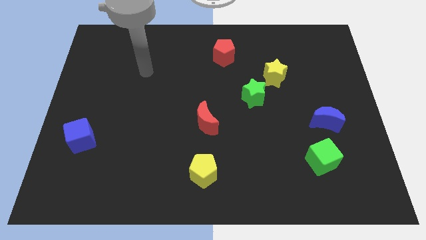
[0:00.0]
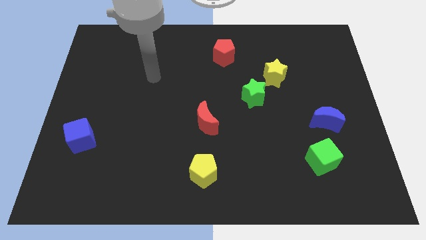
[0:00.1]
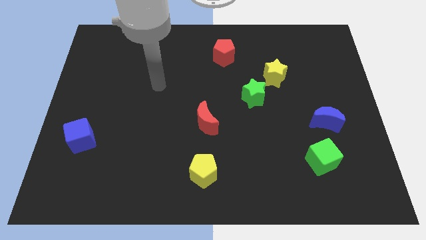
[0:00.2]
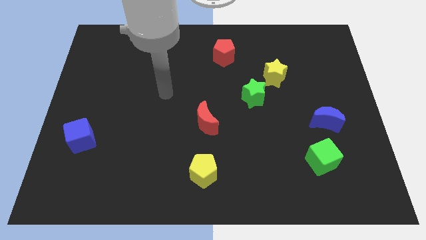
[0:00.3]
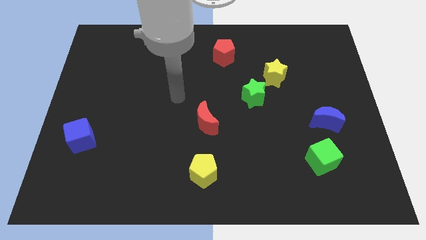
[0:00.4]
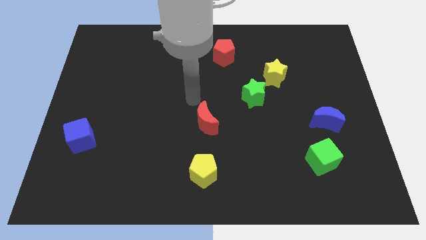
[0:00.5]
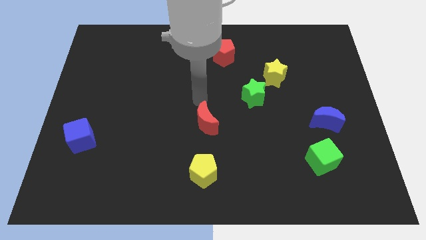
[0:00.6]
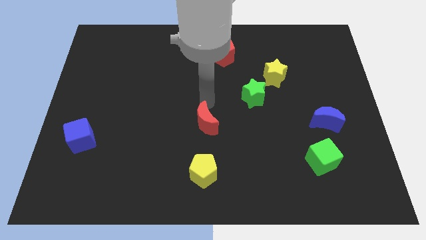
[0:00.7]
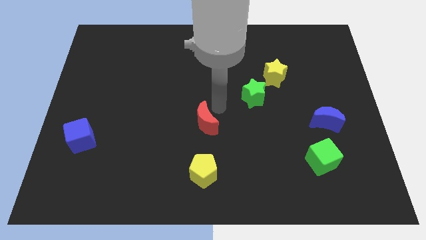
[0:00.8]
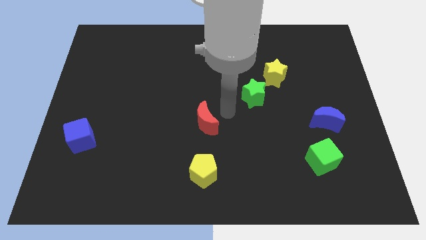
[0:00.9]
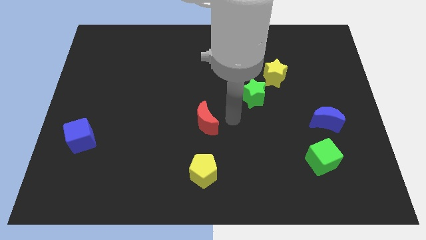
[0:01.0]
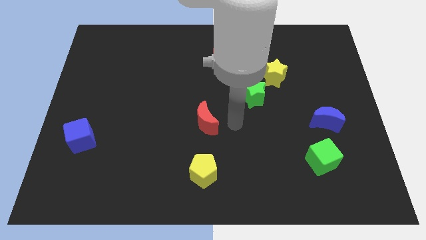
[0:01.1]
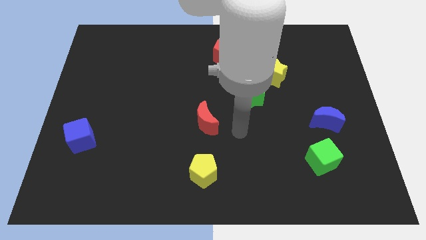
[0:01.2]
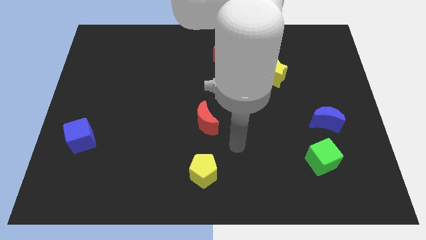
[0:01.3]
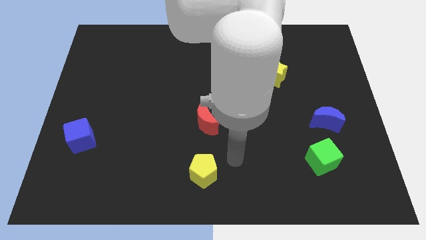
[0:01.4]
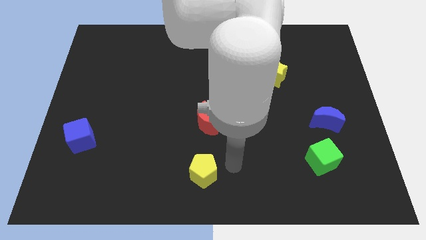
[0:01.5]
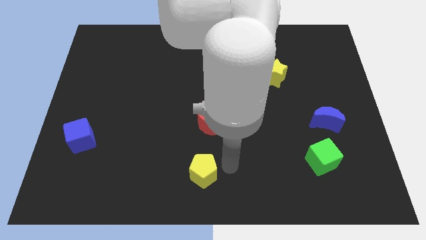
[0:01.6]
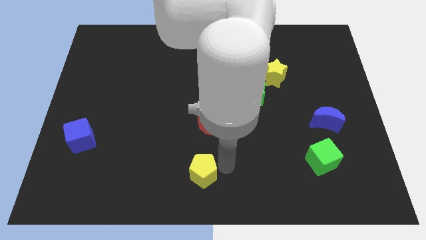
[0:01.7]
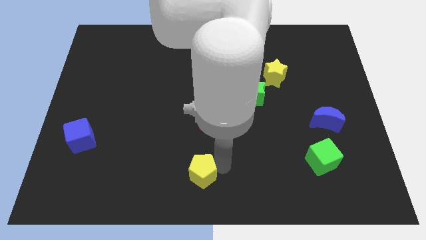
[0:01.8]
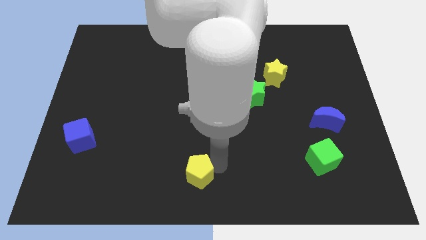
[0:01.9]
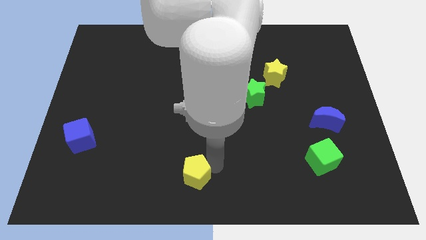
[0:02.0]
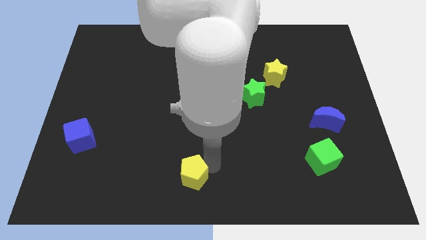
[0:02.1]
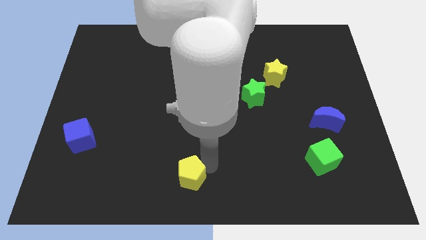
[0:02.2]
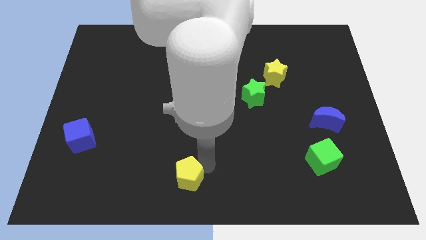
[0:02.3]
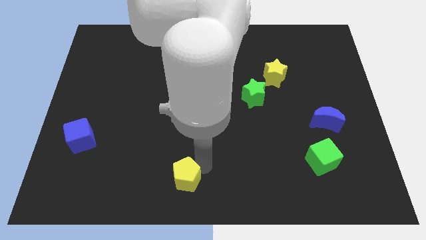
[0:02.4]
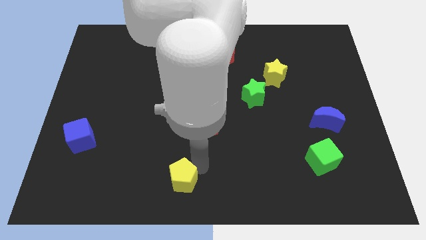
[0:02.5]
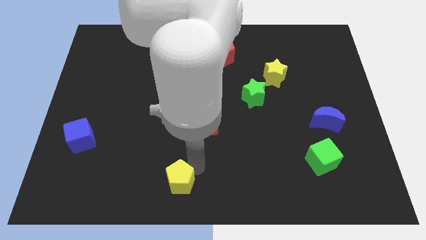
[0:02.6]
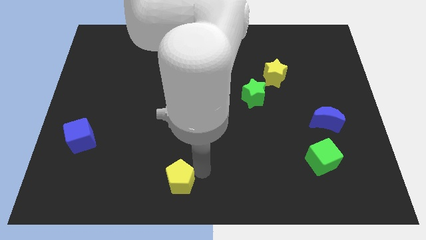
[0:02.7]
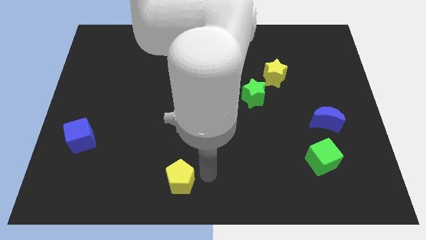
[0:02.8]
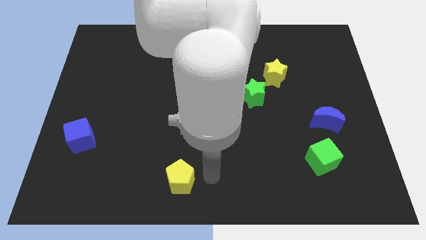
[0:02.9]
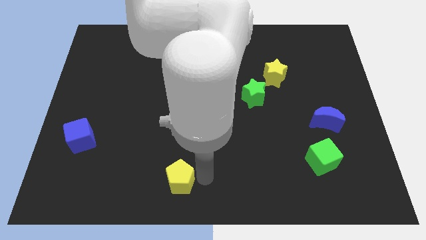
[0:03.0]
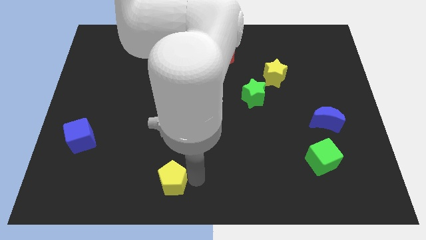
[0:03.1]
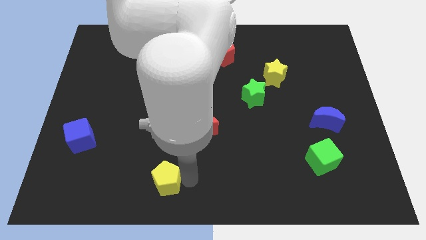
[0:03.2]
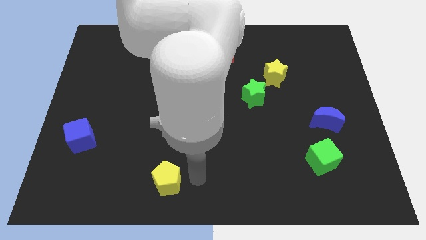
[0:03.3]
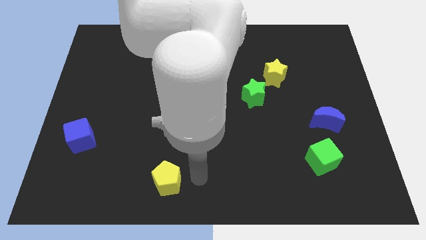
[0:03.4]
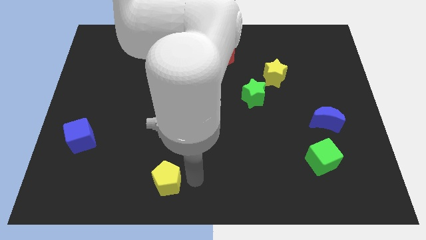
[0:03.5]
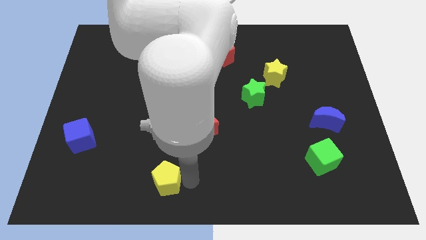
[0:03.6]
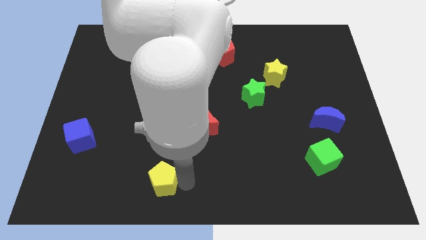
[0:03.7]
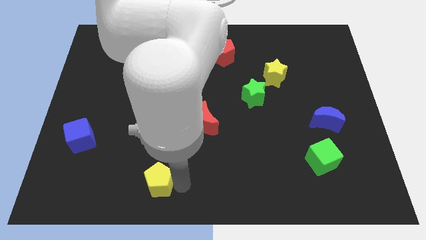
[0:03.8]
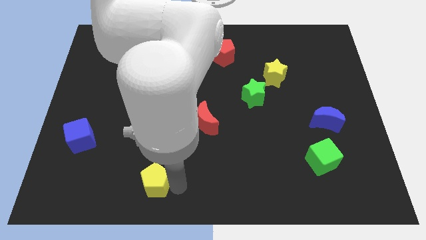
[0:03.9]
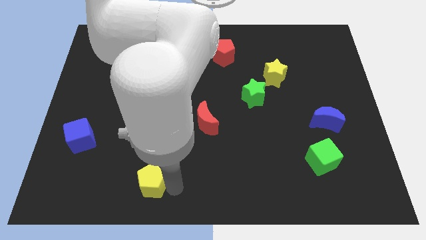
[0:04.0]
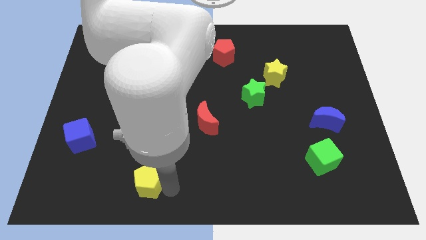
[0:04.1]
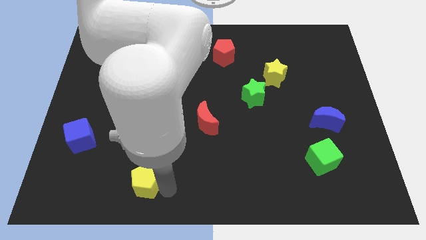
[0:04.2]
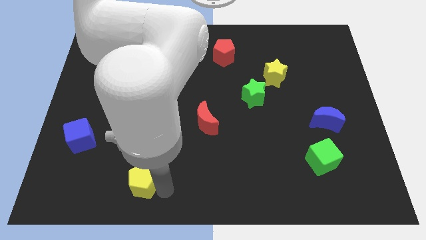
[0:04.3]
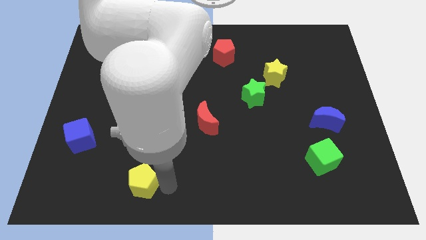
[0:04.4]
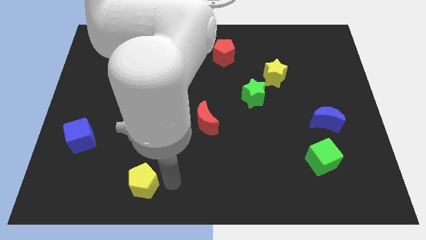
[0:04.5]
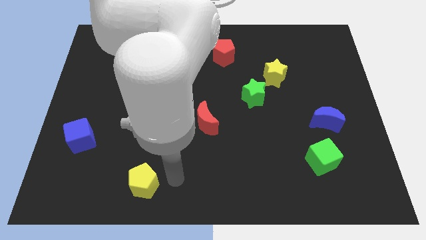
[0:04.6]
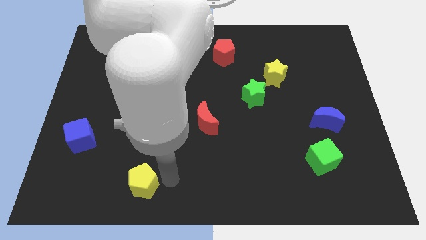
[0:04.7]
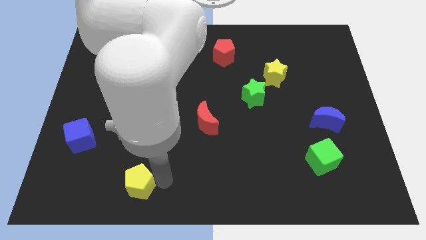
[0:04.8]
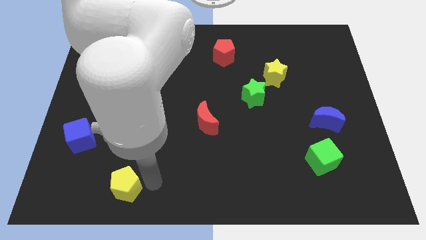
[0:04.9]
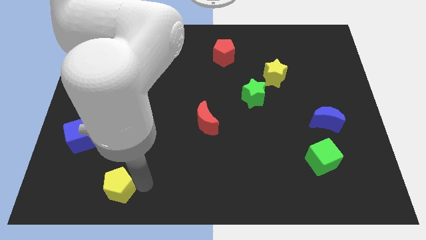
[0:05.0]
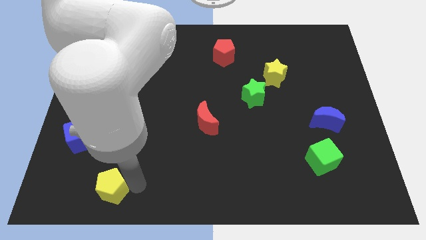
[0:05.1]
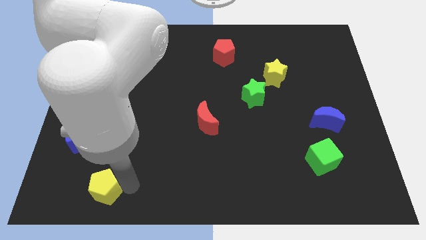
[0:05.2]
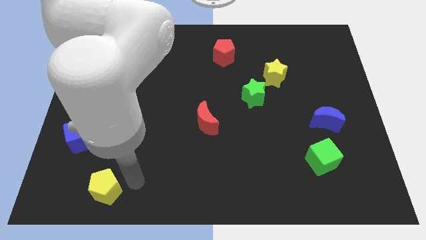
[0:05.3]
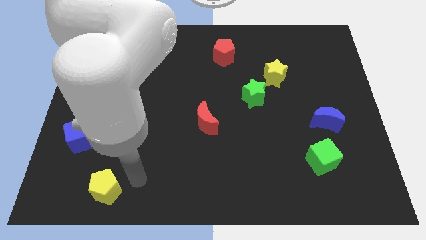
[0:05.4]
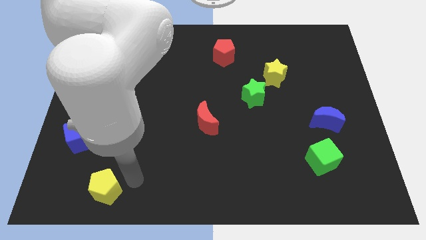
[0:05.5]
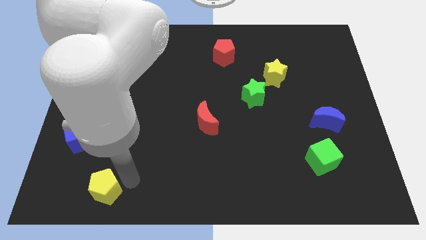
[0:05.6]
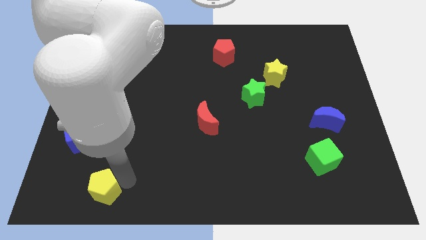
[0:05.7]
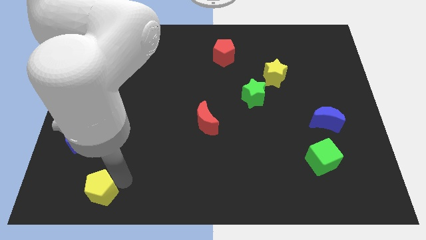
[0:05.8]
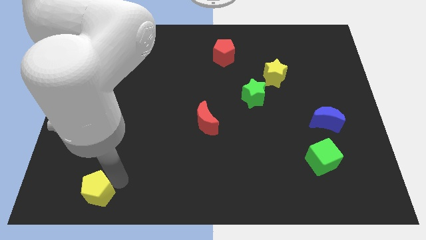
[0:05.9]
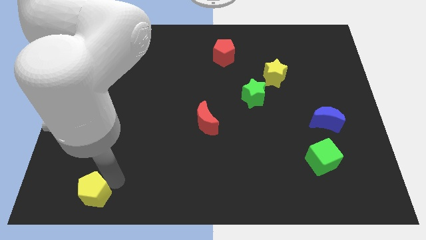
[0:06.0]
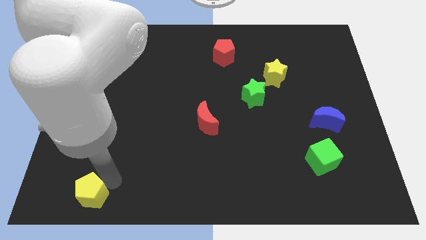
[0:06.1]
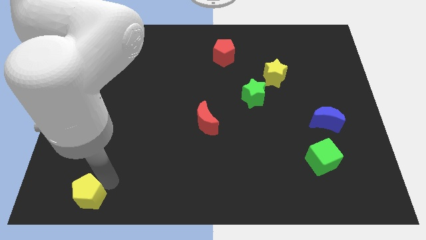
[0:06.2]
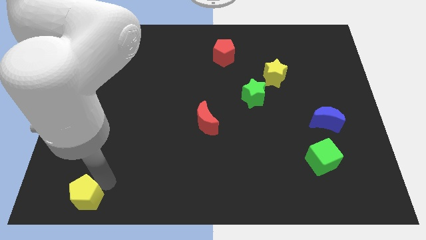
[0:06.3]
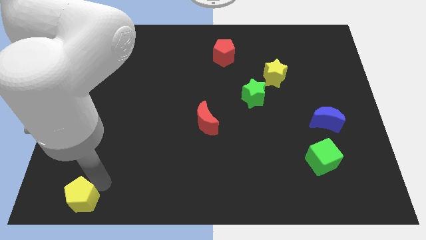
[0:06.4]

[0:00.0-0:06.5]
put the yellow pentagon to the bottom left
